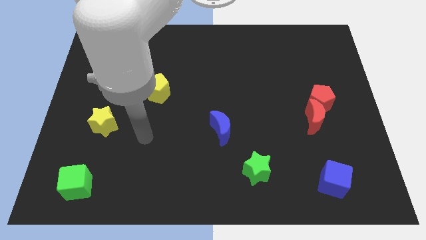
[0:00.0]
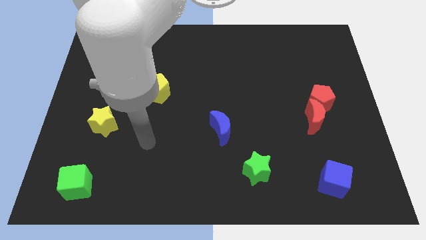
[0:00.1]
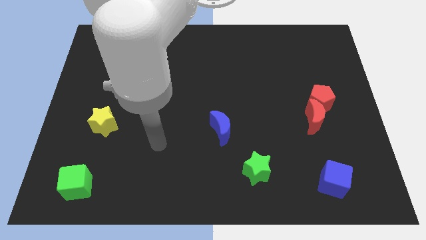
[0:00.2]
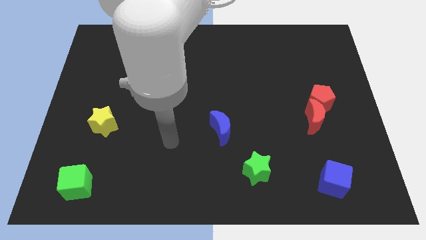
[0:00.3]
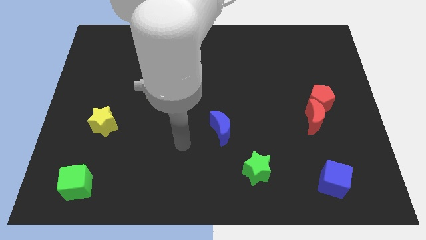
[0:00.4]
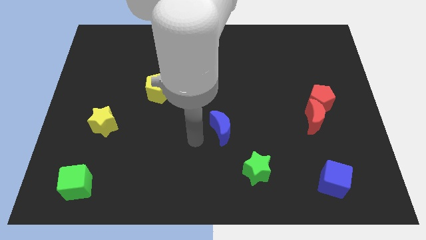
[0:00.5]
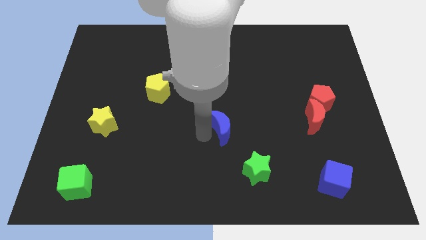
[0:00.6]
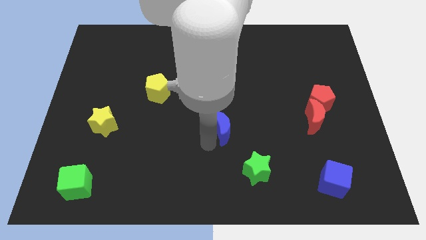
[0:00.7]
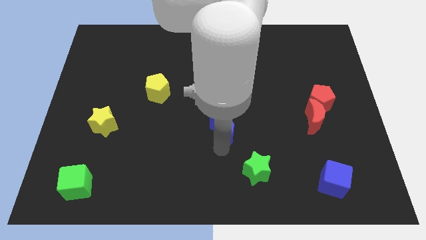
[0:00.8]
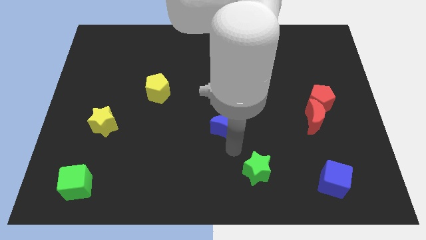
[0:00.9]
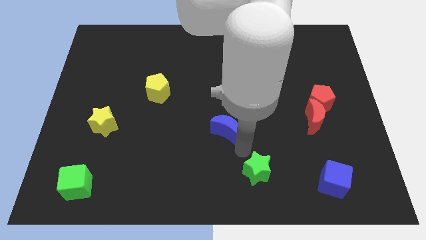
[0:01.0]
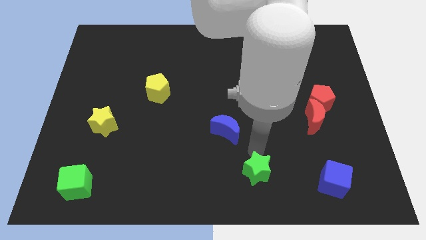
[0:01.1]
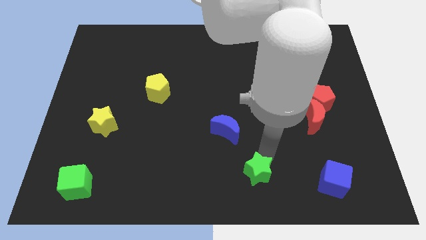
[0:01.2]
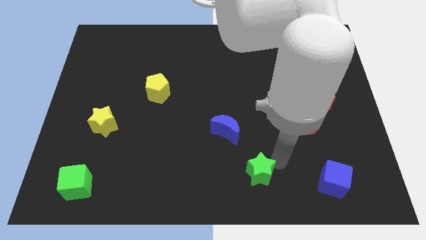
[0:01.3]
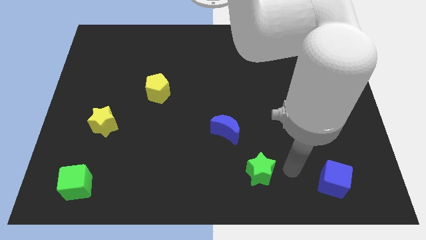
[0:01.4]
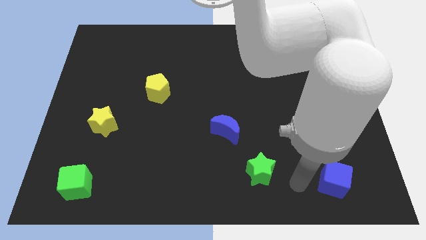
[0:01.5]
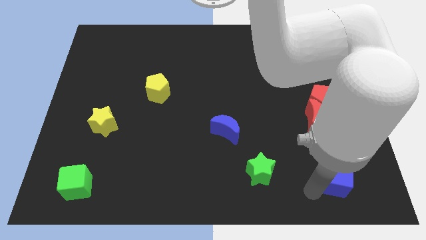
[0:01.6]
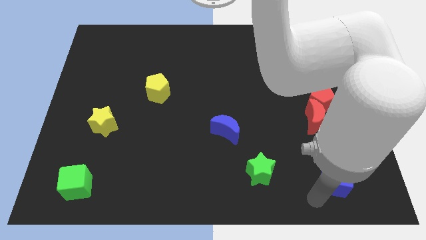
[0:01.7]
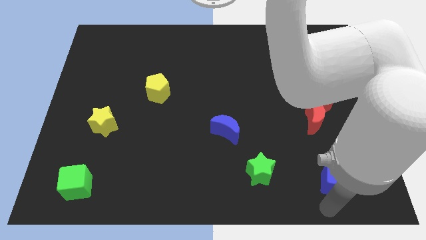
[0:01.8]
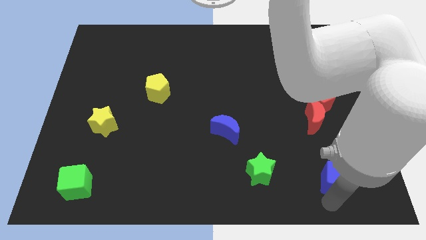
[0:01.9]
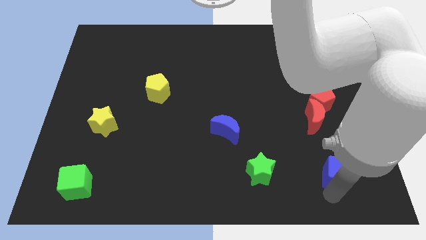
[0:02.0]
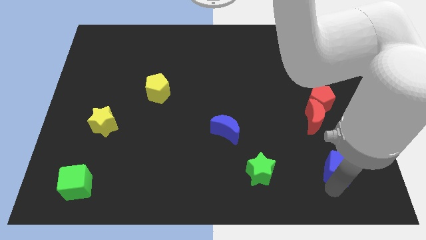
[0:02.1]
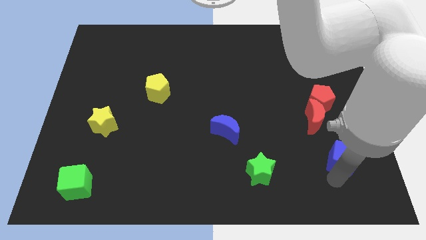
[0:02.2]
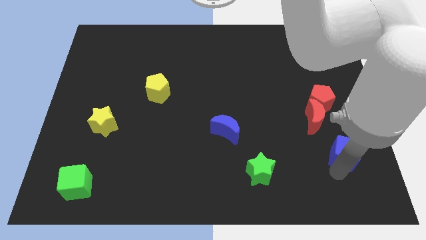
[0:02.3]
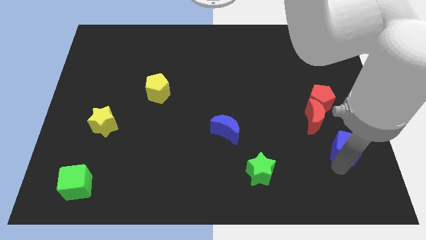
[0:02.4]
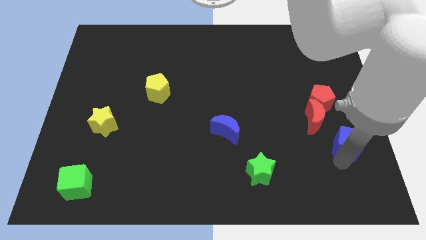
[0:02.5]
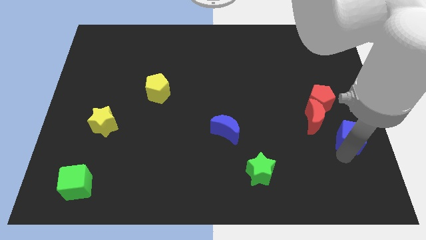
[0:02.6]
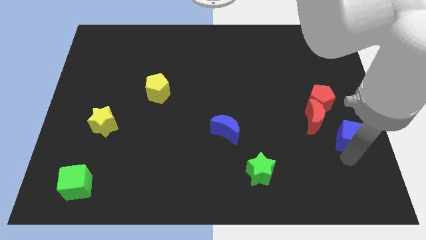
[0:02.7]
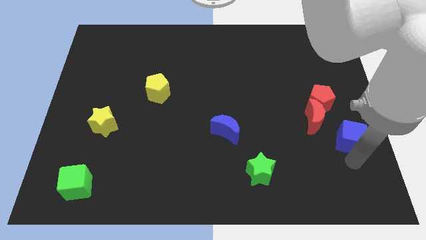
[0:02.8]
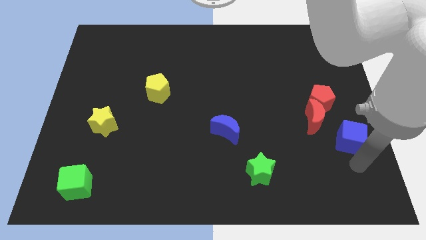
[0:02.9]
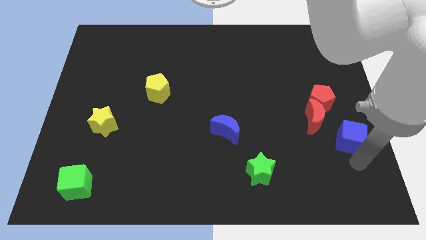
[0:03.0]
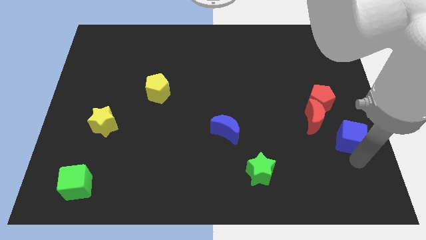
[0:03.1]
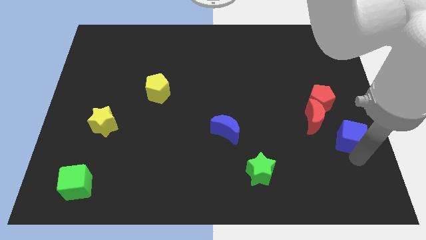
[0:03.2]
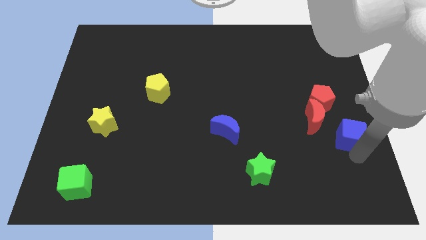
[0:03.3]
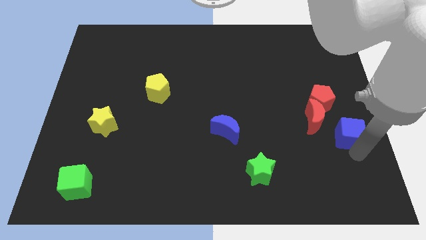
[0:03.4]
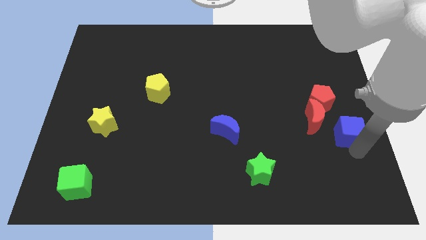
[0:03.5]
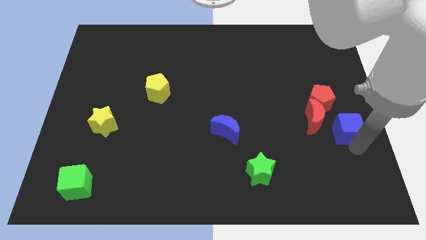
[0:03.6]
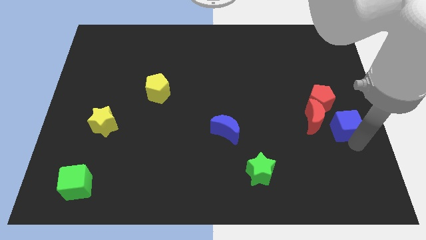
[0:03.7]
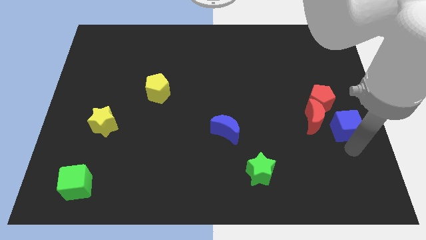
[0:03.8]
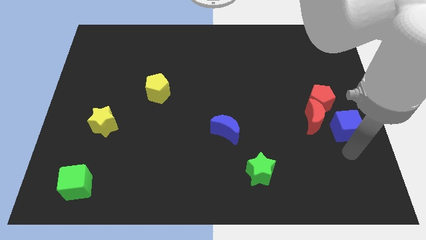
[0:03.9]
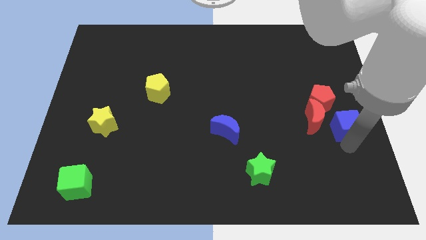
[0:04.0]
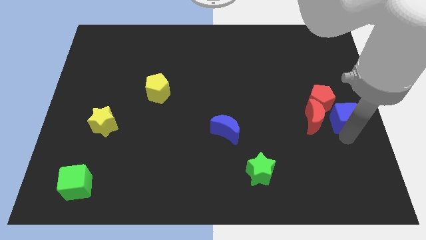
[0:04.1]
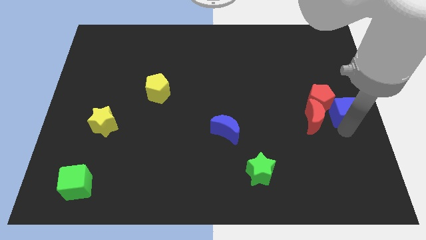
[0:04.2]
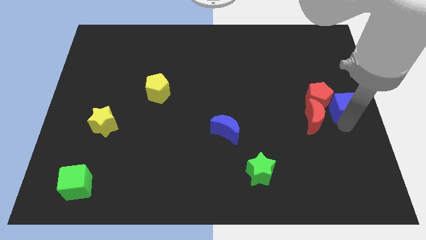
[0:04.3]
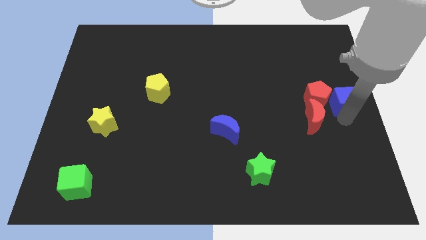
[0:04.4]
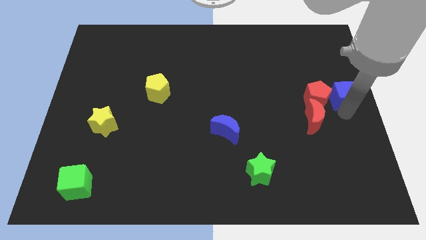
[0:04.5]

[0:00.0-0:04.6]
slide the blue cube upwards

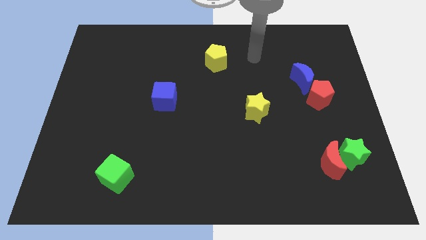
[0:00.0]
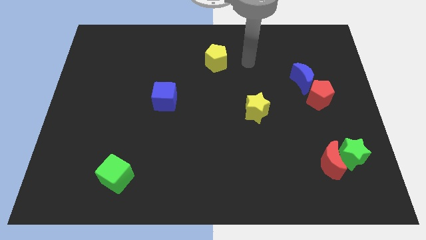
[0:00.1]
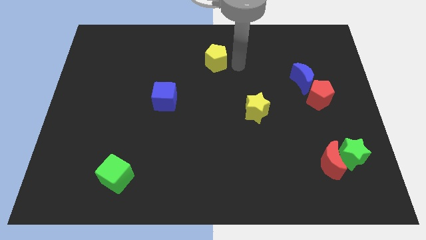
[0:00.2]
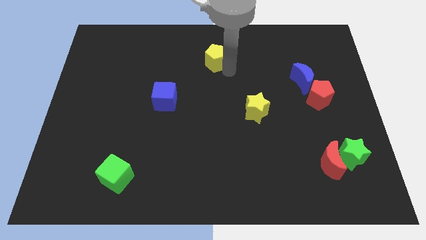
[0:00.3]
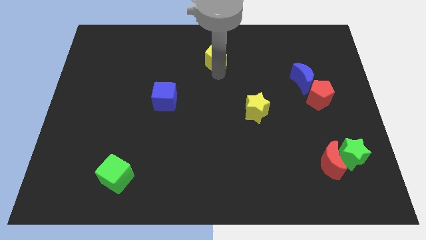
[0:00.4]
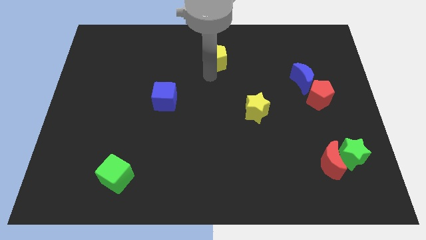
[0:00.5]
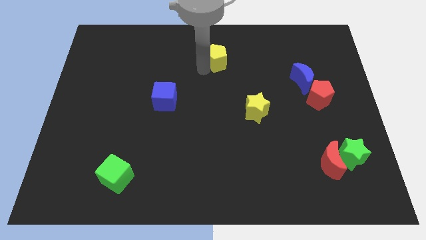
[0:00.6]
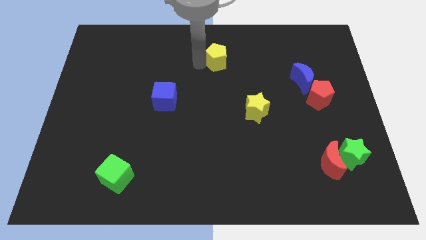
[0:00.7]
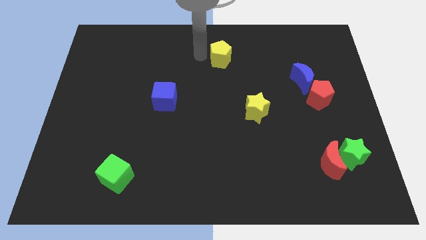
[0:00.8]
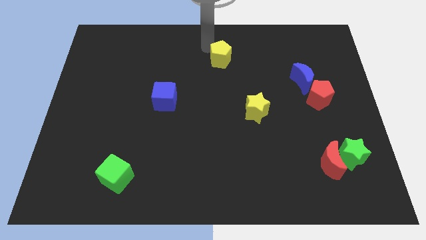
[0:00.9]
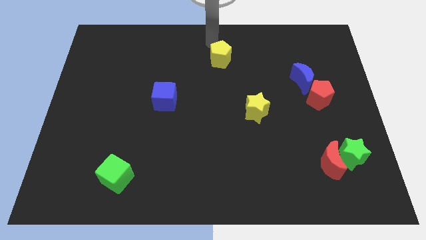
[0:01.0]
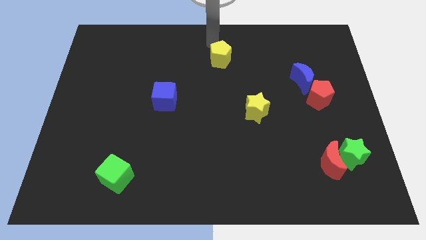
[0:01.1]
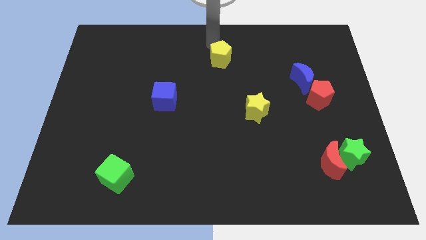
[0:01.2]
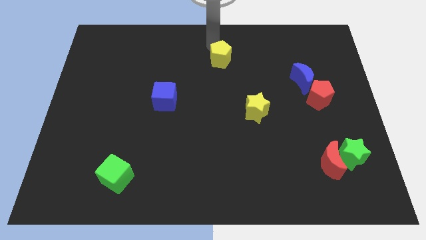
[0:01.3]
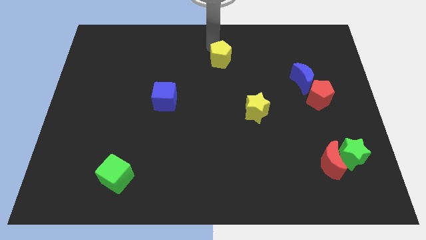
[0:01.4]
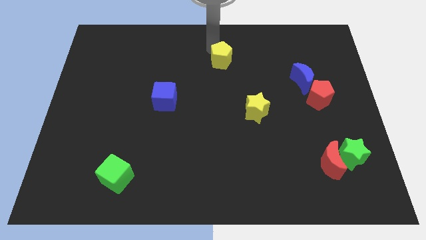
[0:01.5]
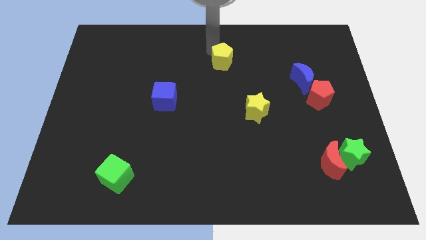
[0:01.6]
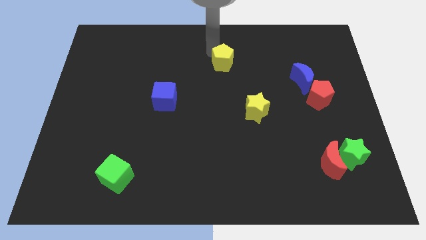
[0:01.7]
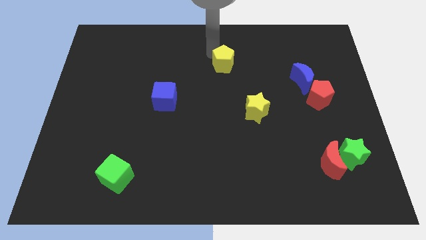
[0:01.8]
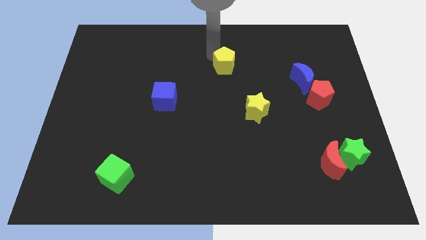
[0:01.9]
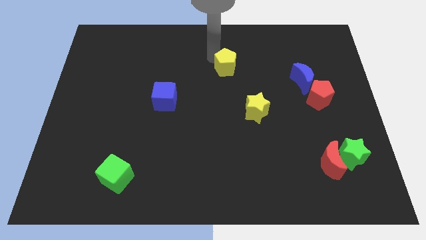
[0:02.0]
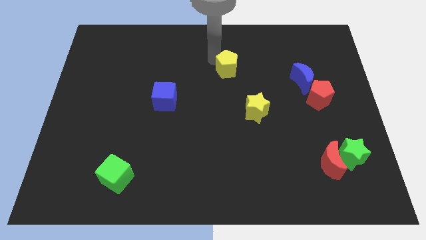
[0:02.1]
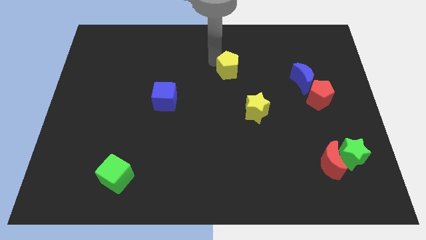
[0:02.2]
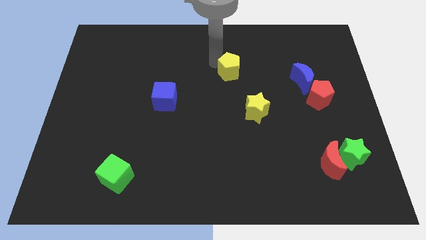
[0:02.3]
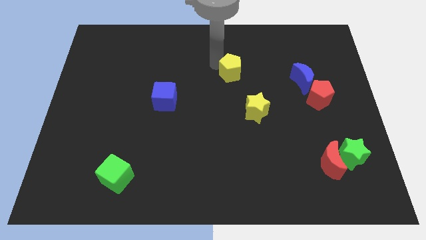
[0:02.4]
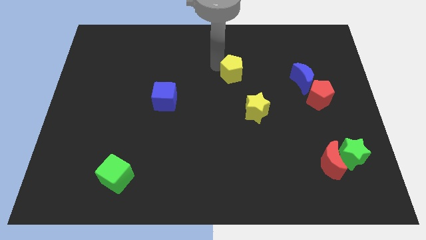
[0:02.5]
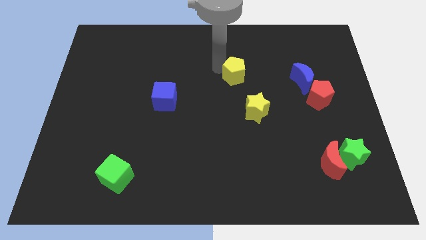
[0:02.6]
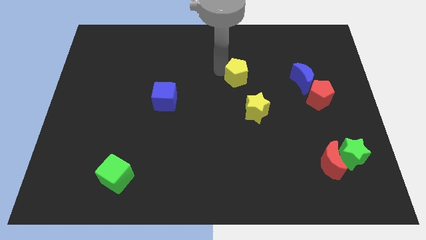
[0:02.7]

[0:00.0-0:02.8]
slightly push the yellow pentagon down and to the right

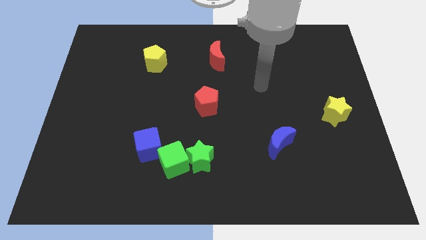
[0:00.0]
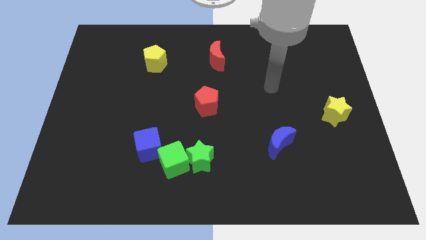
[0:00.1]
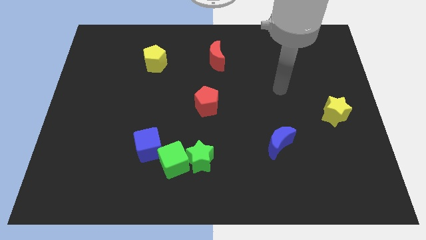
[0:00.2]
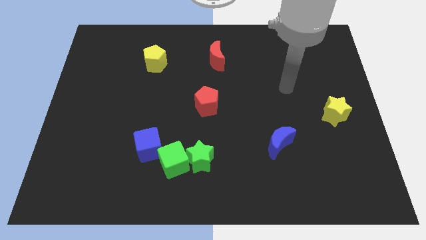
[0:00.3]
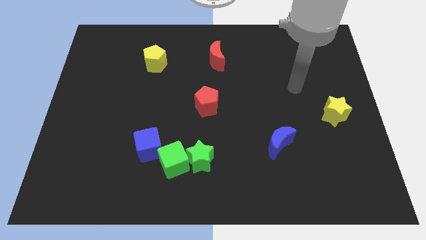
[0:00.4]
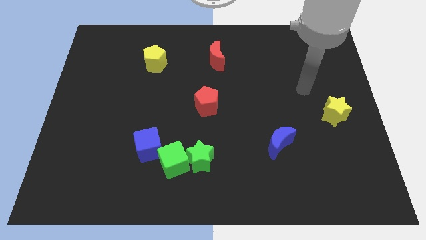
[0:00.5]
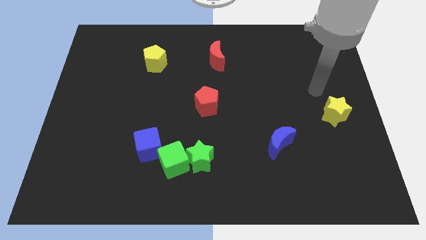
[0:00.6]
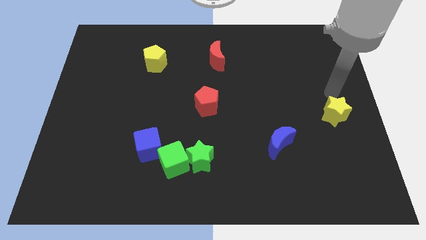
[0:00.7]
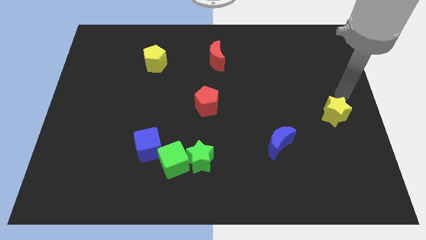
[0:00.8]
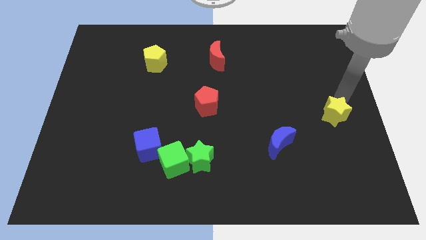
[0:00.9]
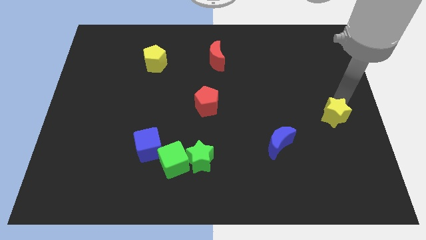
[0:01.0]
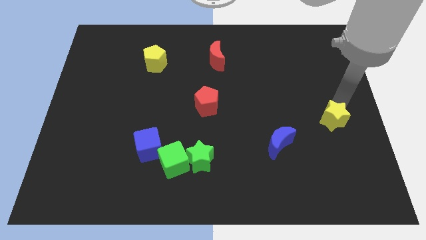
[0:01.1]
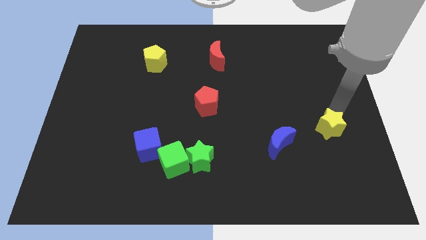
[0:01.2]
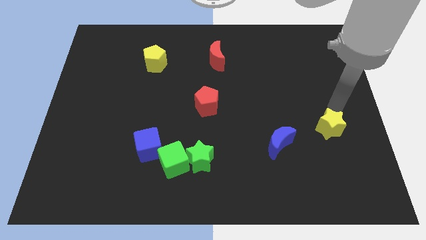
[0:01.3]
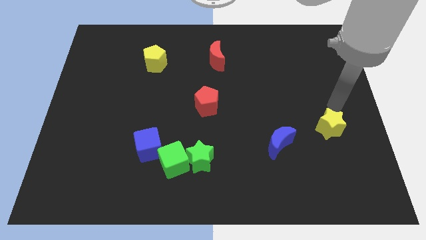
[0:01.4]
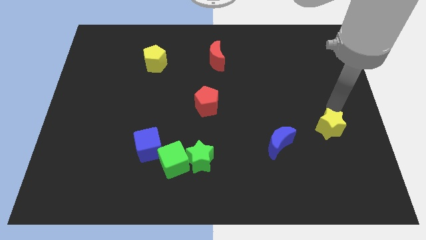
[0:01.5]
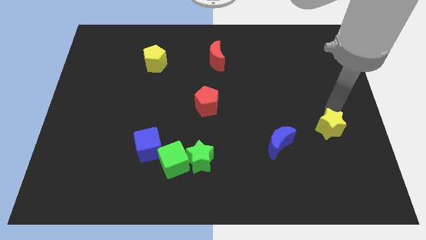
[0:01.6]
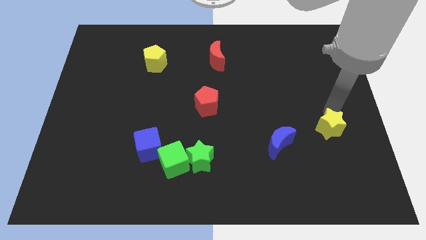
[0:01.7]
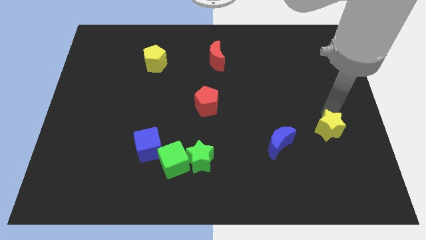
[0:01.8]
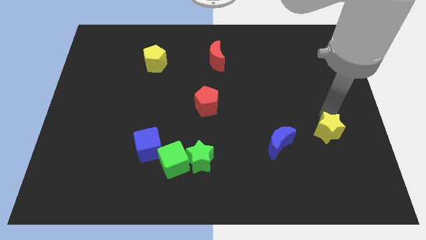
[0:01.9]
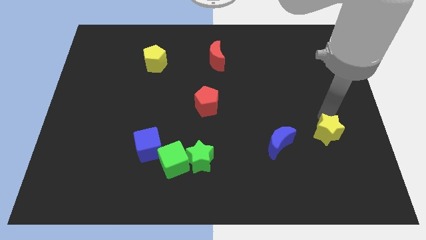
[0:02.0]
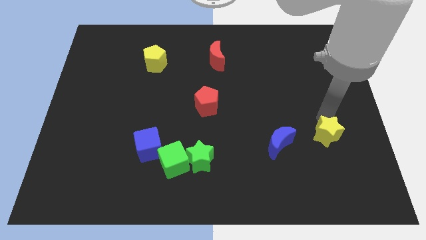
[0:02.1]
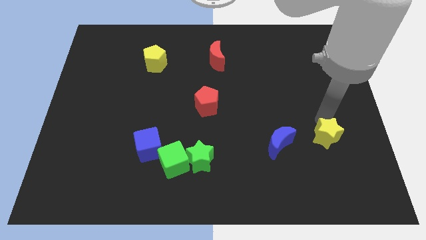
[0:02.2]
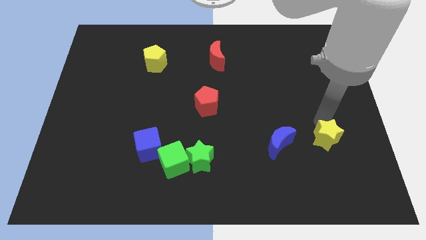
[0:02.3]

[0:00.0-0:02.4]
slide the yellow star slightly diagonally down and left
